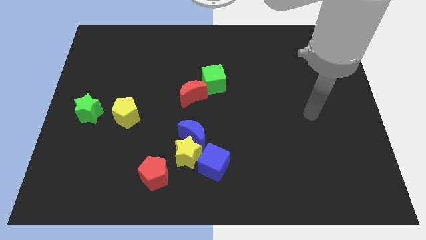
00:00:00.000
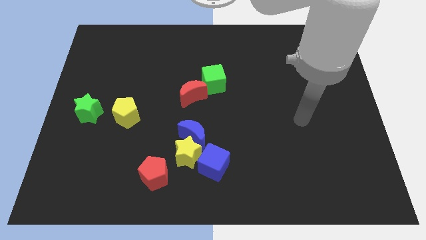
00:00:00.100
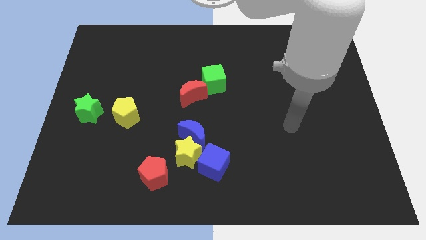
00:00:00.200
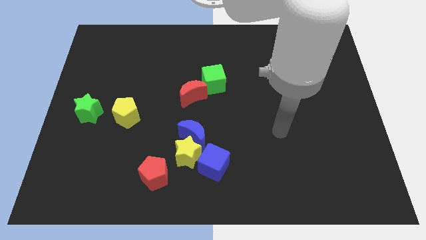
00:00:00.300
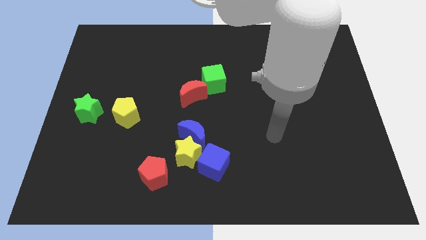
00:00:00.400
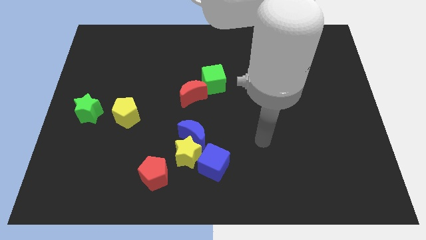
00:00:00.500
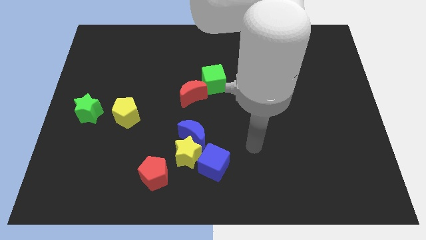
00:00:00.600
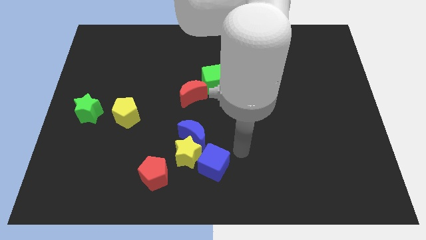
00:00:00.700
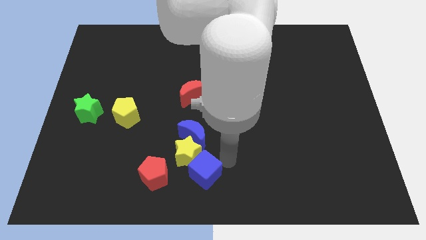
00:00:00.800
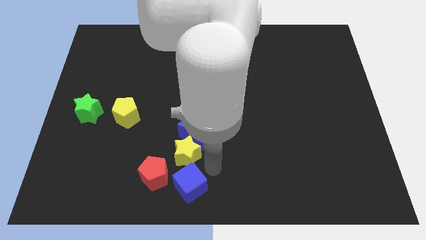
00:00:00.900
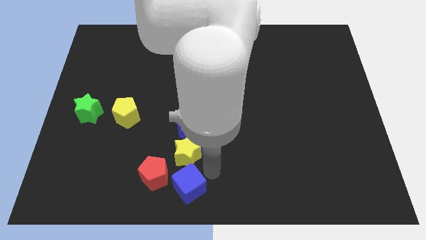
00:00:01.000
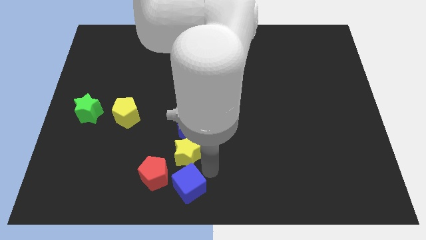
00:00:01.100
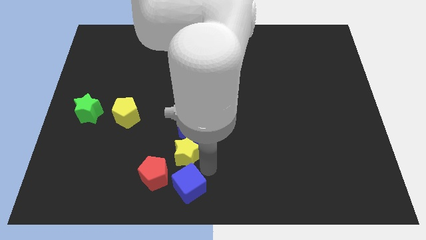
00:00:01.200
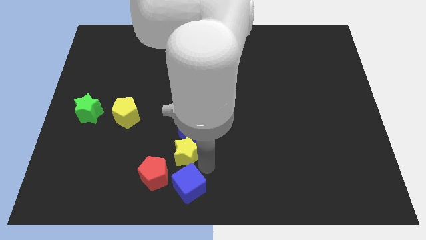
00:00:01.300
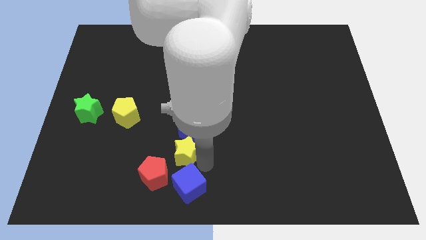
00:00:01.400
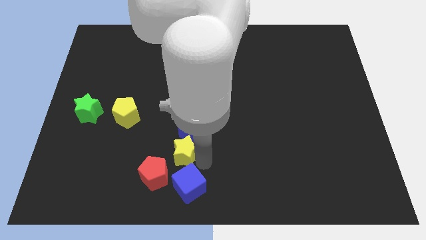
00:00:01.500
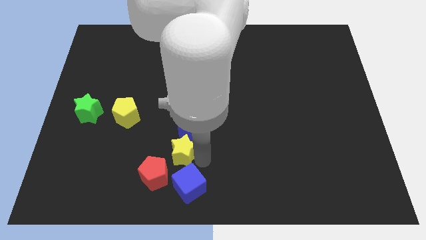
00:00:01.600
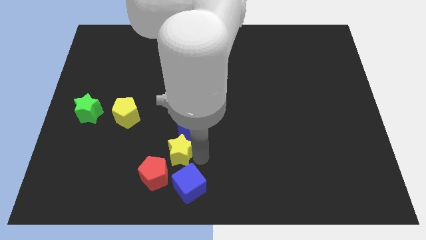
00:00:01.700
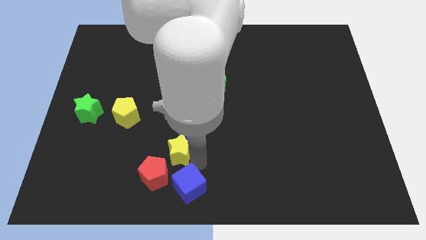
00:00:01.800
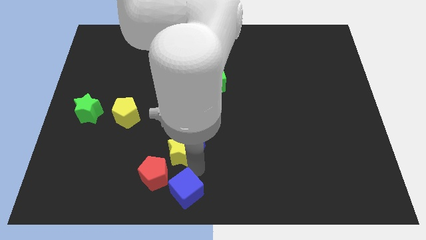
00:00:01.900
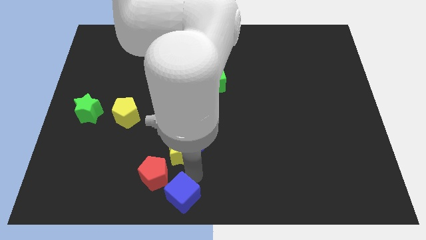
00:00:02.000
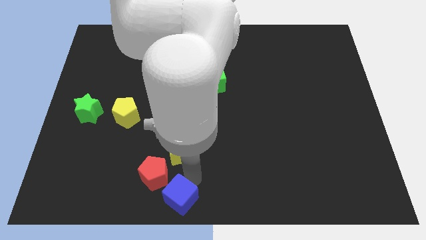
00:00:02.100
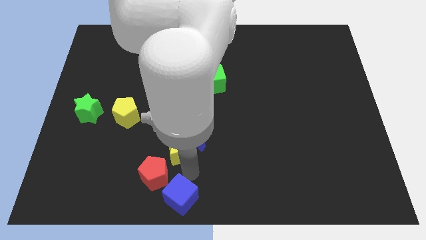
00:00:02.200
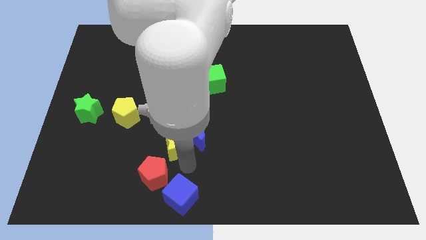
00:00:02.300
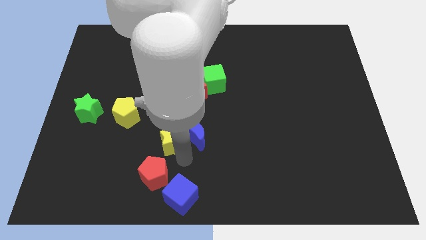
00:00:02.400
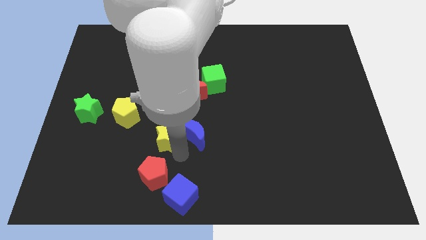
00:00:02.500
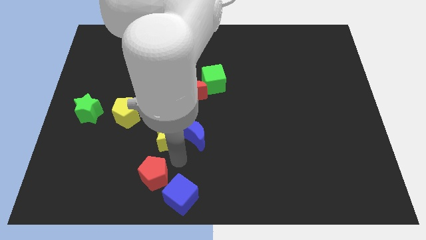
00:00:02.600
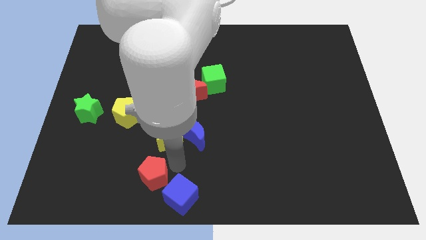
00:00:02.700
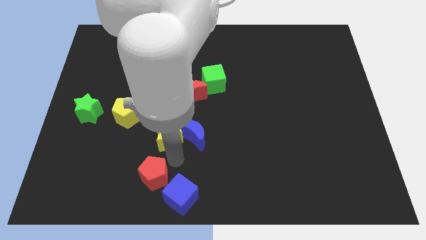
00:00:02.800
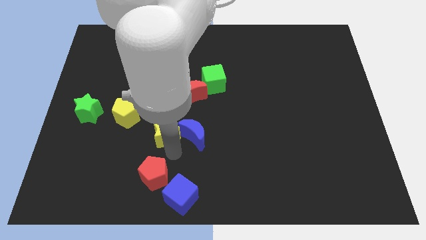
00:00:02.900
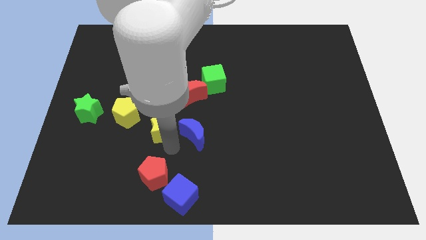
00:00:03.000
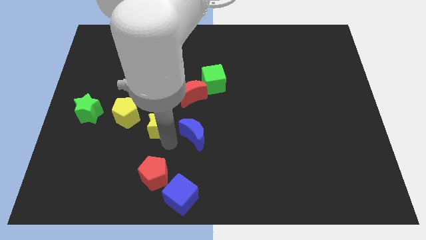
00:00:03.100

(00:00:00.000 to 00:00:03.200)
separate the yellow star from the clump

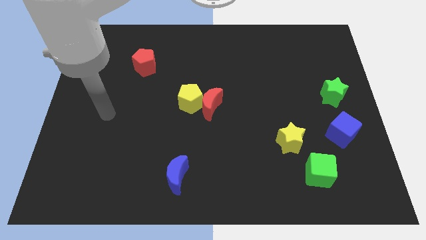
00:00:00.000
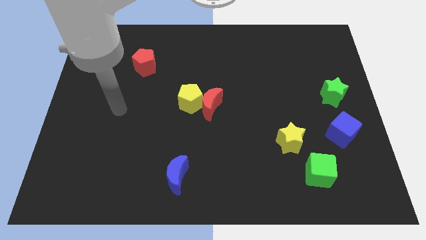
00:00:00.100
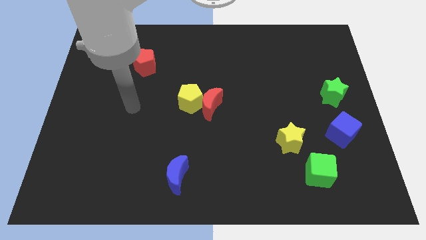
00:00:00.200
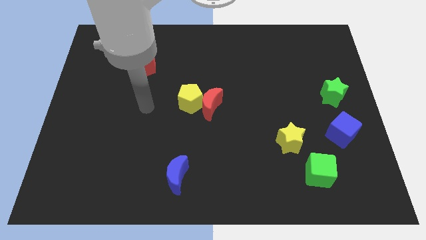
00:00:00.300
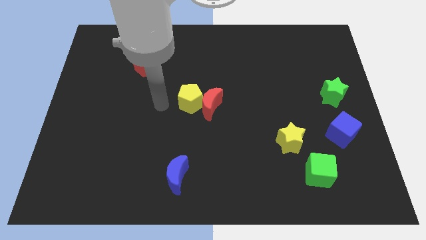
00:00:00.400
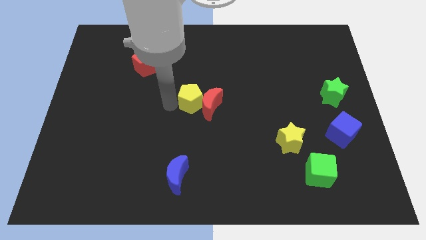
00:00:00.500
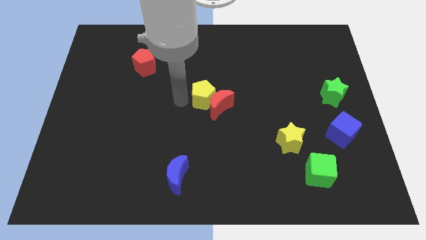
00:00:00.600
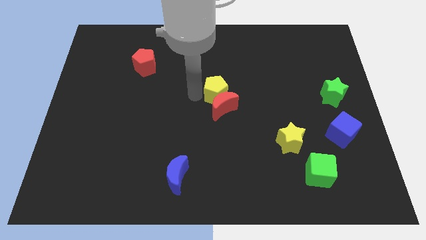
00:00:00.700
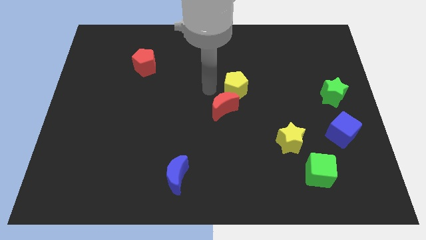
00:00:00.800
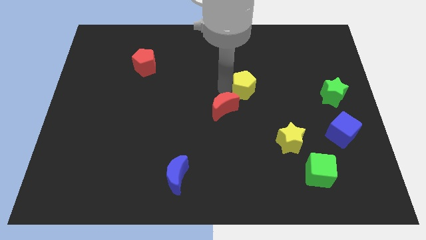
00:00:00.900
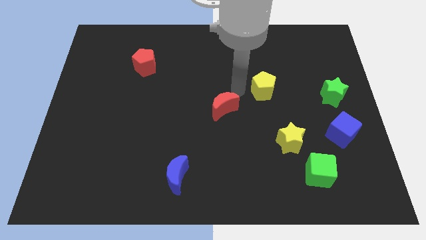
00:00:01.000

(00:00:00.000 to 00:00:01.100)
move the red moon away from the yellow pentagon

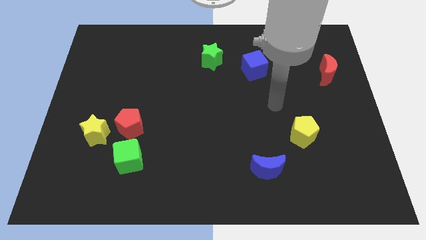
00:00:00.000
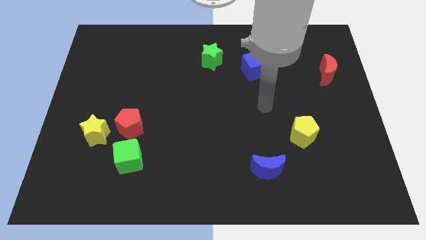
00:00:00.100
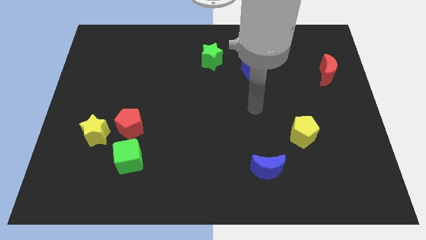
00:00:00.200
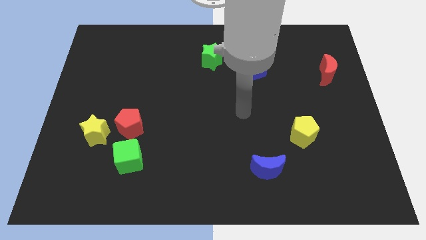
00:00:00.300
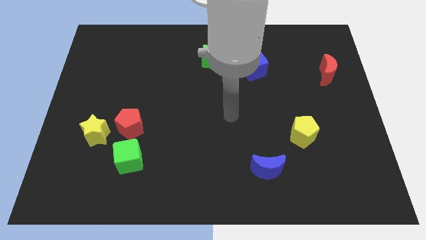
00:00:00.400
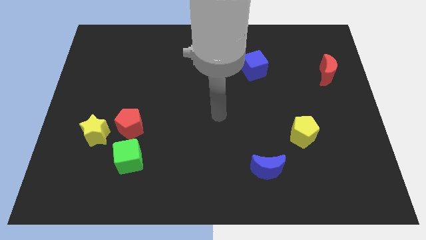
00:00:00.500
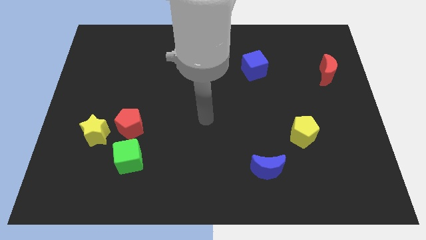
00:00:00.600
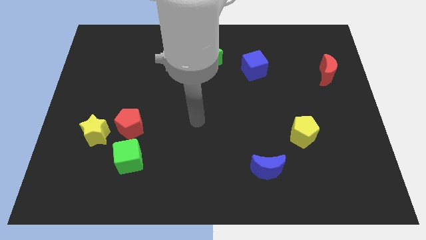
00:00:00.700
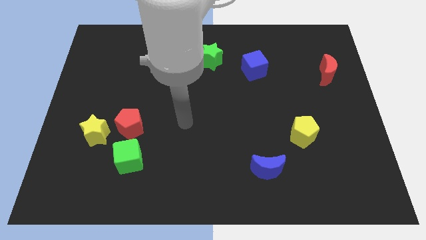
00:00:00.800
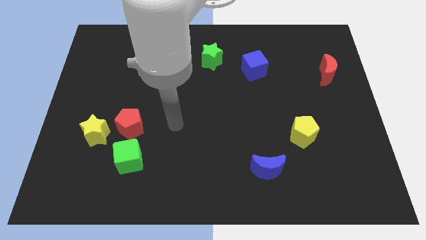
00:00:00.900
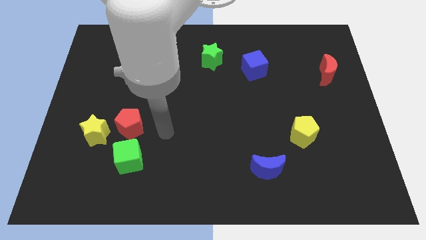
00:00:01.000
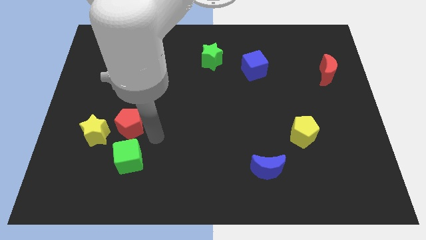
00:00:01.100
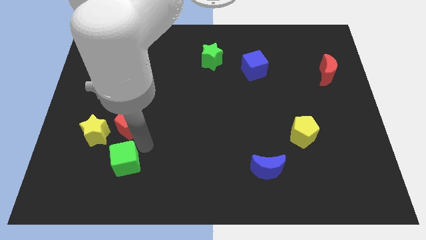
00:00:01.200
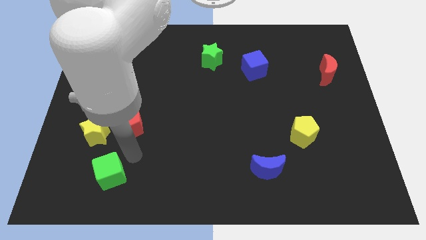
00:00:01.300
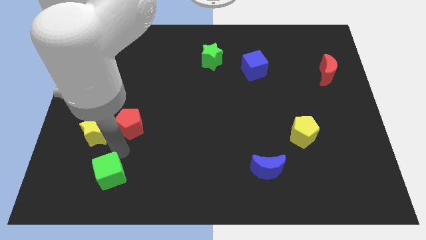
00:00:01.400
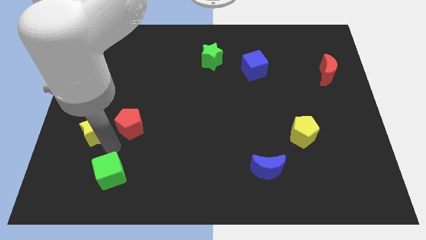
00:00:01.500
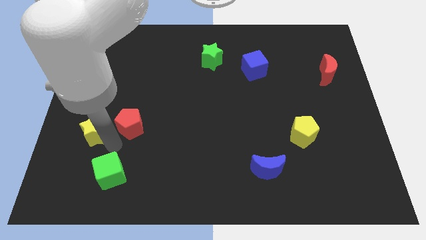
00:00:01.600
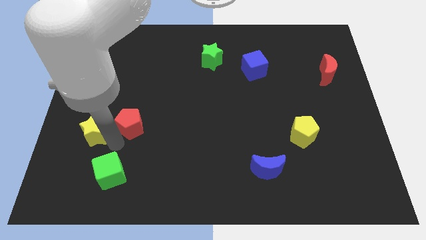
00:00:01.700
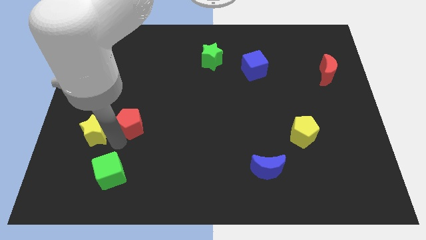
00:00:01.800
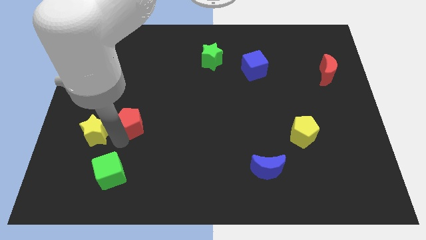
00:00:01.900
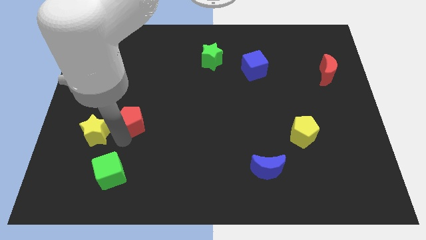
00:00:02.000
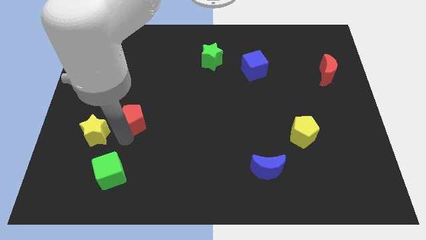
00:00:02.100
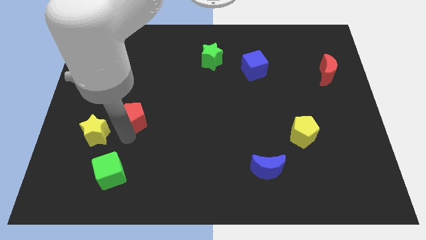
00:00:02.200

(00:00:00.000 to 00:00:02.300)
separate the red pentagon from the yellow star and green cube

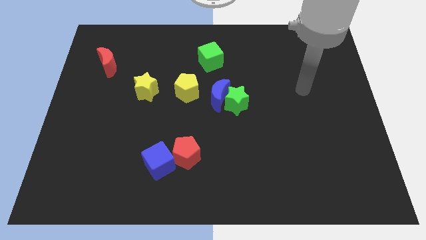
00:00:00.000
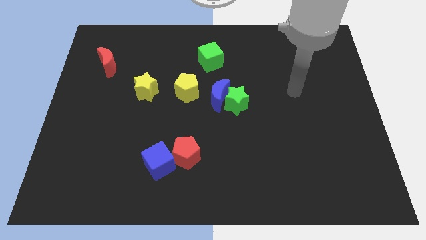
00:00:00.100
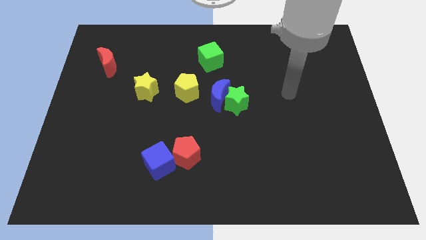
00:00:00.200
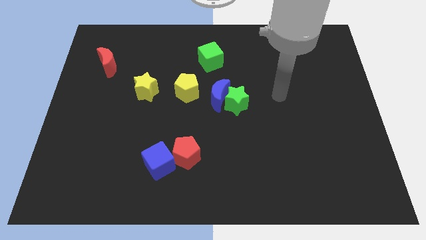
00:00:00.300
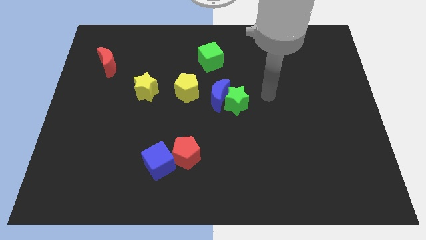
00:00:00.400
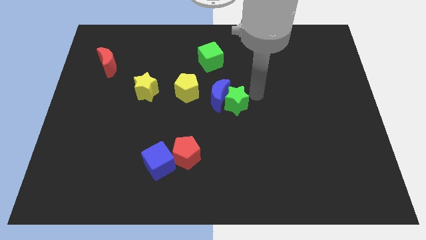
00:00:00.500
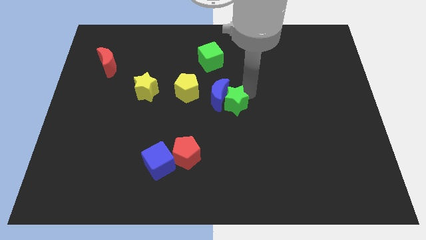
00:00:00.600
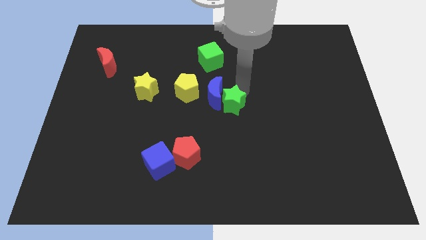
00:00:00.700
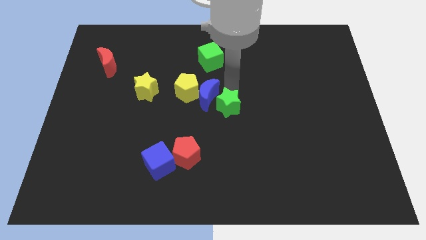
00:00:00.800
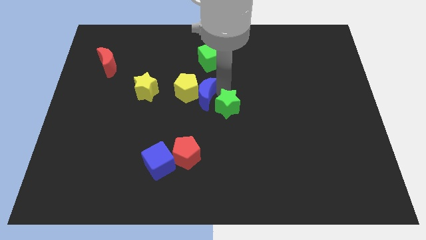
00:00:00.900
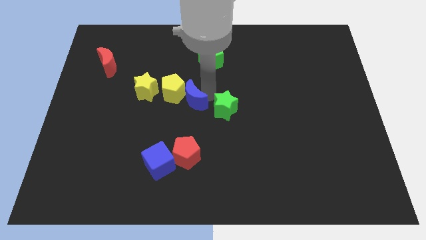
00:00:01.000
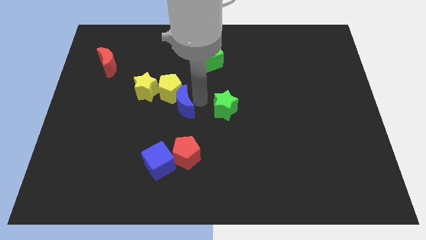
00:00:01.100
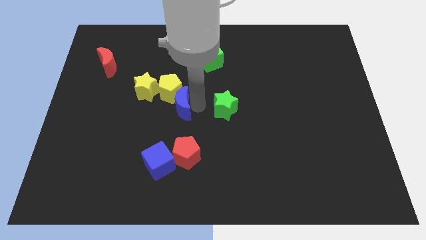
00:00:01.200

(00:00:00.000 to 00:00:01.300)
pull the green star apart from the blue moon

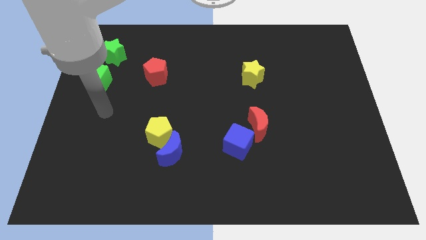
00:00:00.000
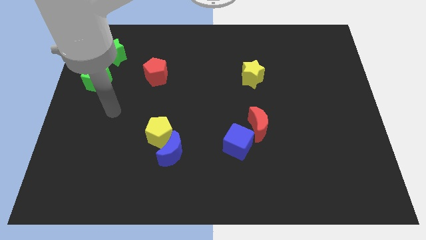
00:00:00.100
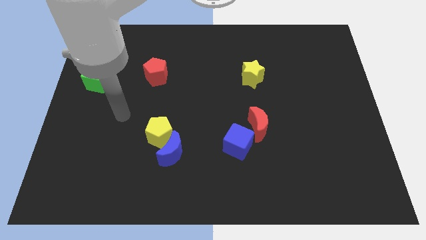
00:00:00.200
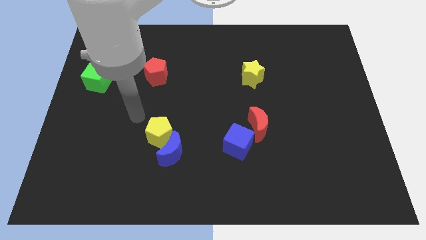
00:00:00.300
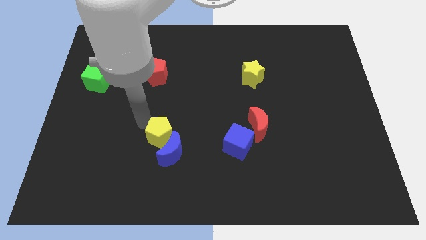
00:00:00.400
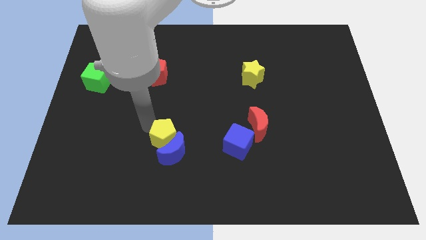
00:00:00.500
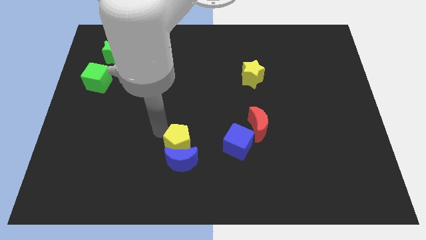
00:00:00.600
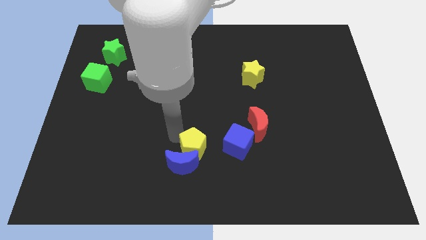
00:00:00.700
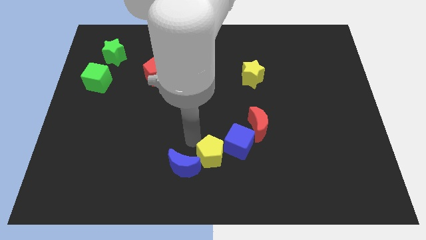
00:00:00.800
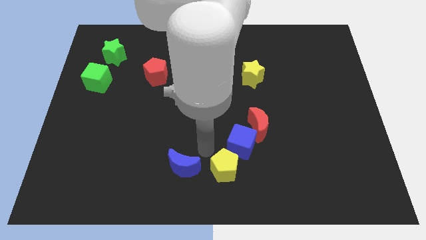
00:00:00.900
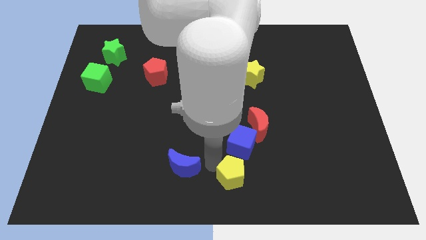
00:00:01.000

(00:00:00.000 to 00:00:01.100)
pull the blue moon apart from the yellow pentagon

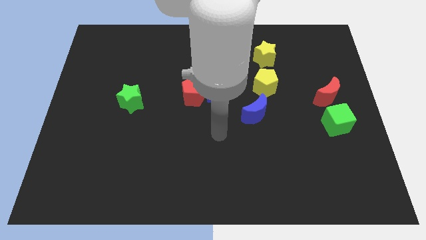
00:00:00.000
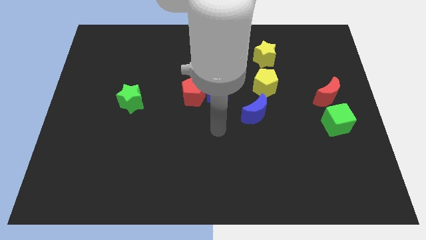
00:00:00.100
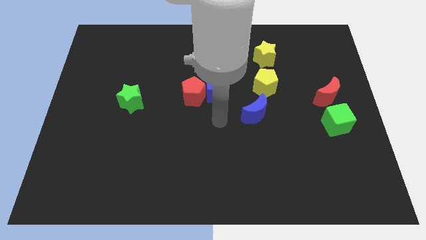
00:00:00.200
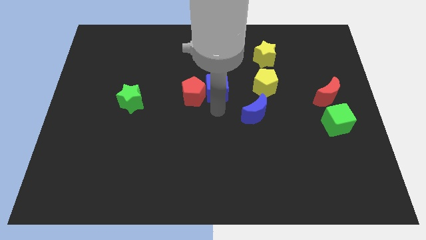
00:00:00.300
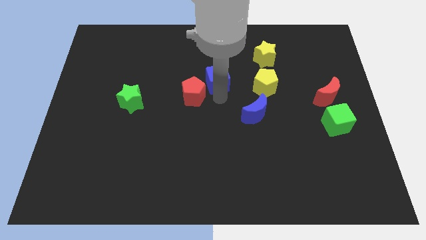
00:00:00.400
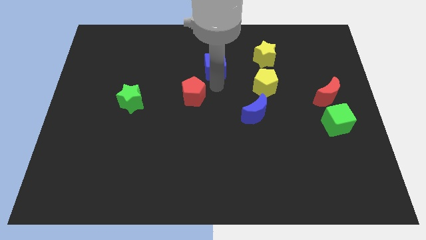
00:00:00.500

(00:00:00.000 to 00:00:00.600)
pull the red pentagon apart from the blue cube
